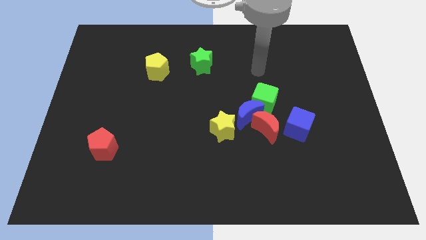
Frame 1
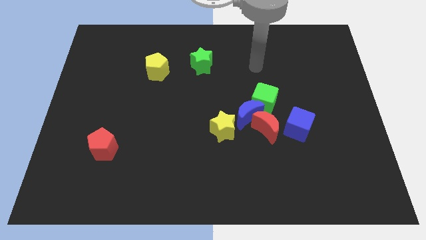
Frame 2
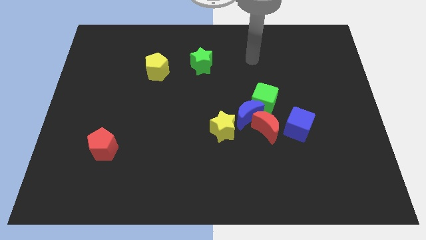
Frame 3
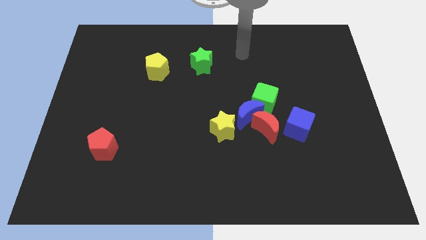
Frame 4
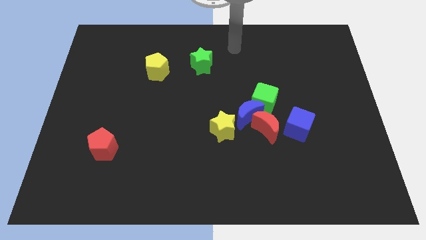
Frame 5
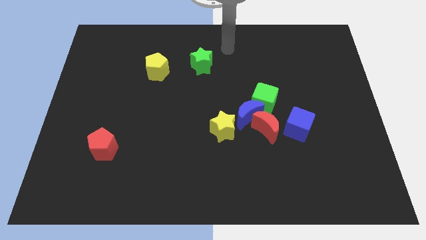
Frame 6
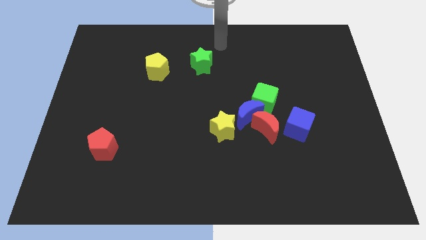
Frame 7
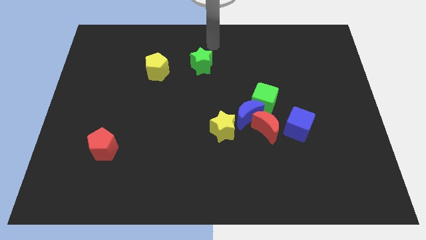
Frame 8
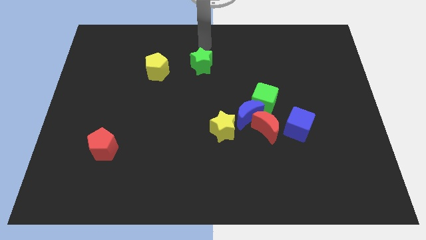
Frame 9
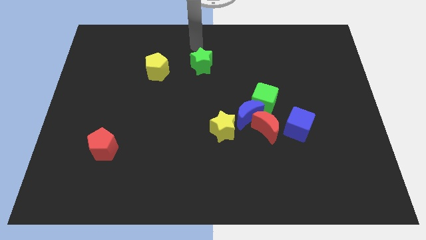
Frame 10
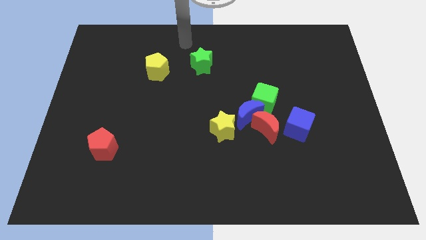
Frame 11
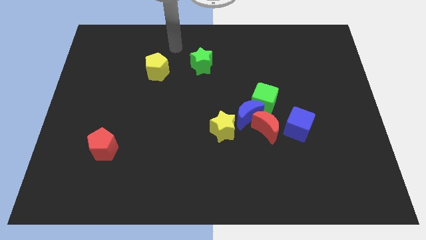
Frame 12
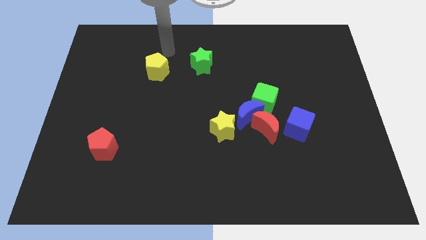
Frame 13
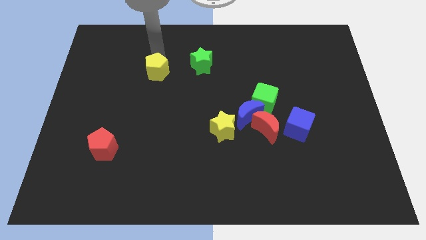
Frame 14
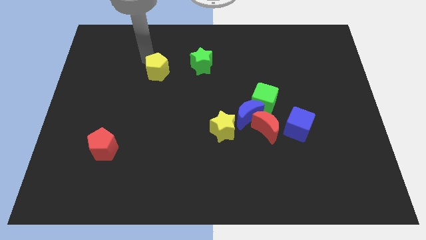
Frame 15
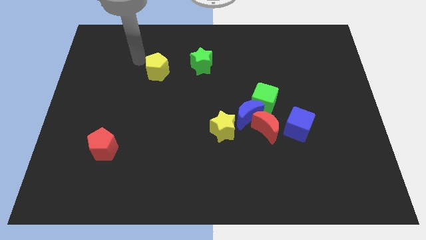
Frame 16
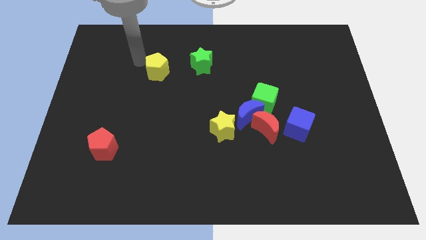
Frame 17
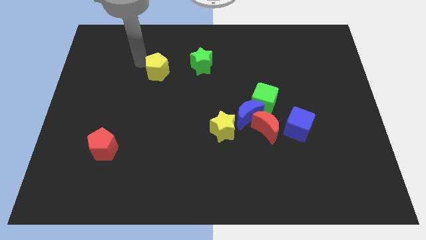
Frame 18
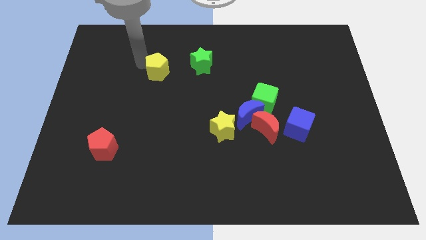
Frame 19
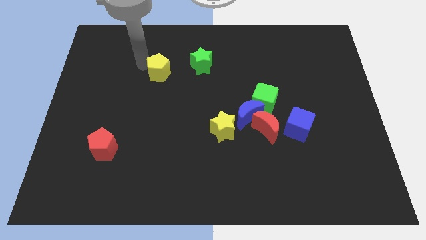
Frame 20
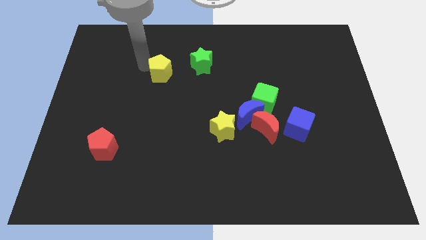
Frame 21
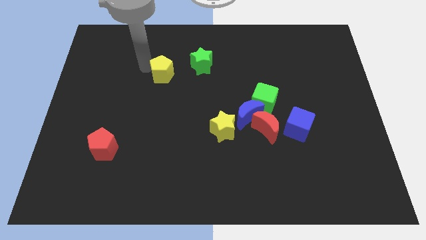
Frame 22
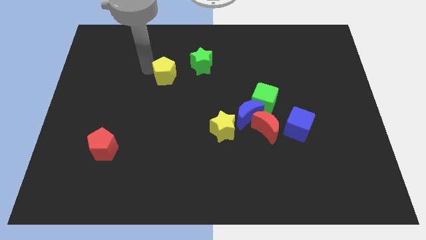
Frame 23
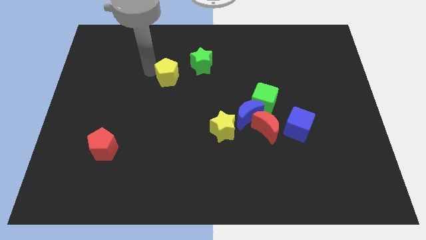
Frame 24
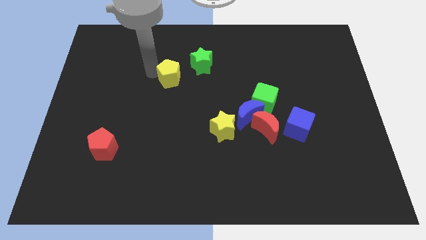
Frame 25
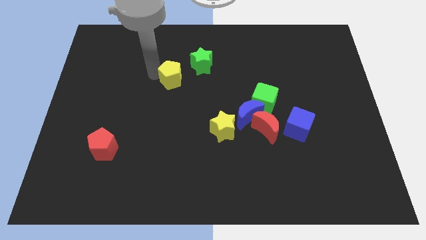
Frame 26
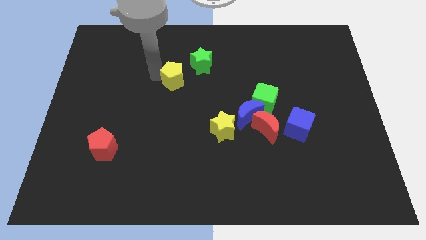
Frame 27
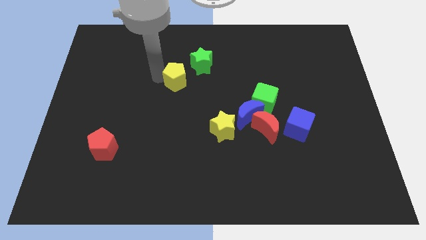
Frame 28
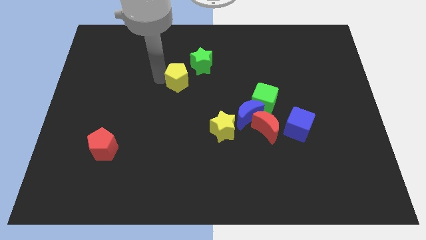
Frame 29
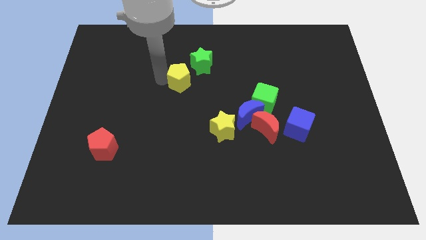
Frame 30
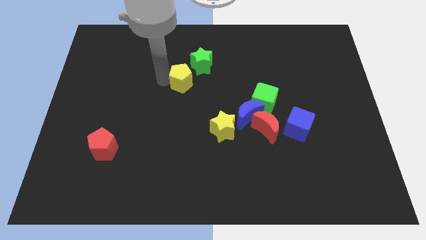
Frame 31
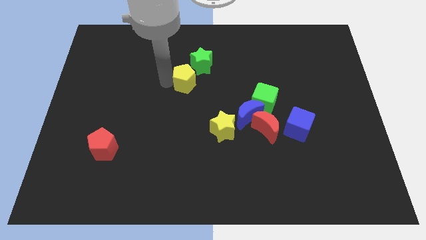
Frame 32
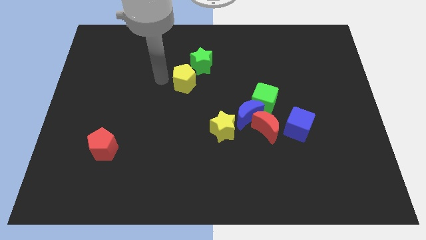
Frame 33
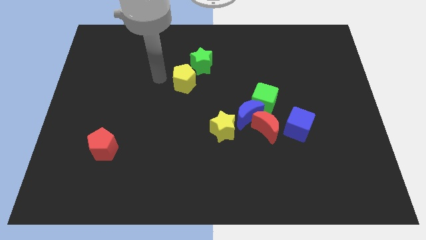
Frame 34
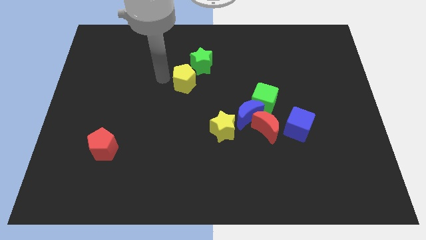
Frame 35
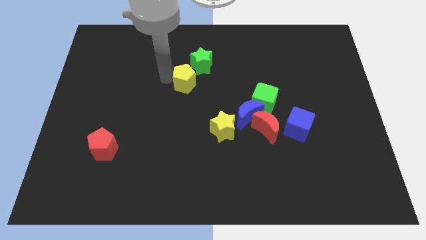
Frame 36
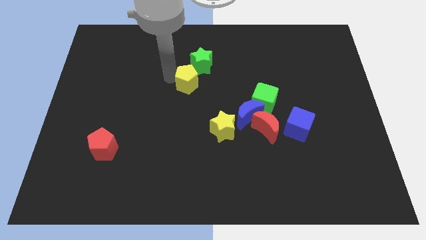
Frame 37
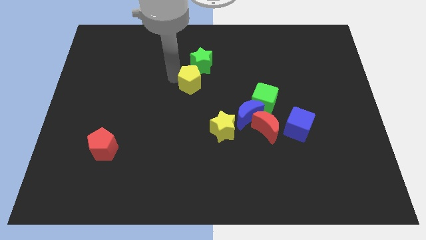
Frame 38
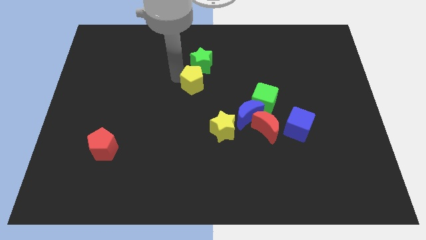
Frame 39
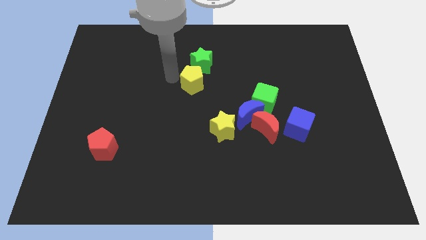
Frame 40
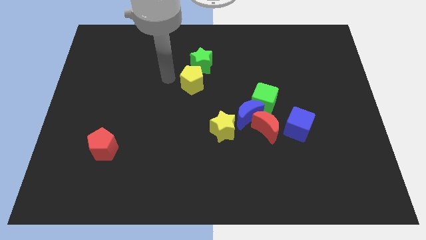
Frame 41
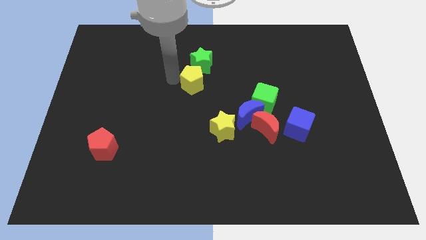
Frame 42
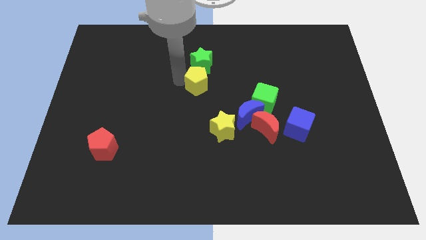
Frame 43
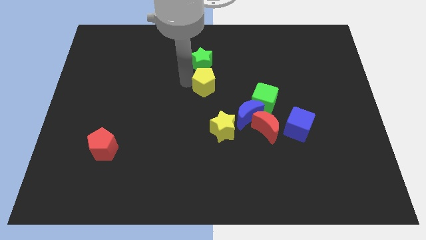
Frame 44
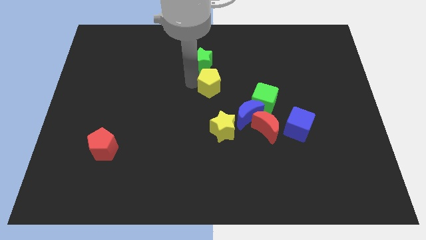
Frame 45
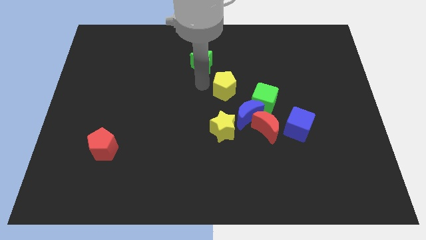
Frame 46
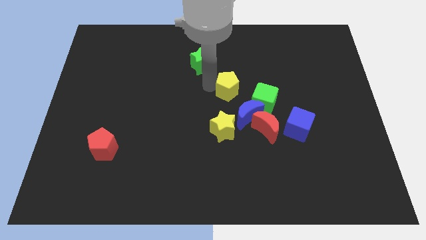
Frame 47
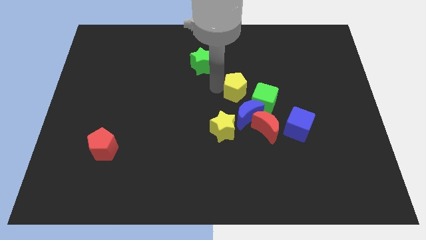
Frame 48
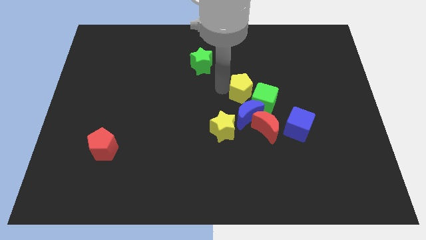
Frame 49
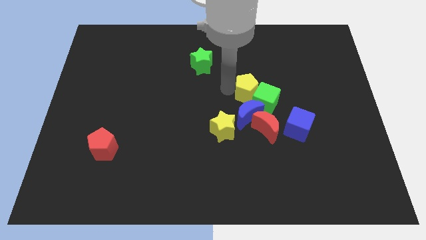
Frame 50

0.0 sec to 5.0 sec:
slide the yellow pentagon close to the green cube

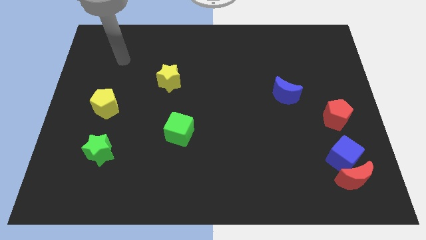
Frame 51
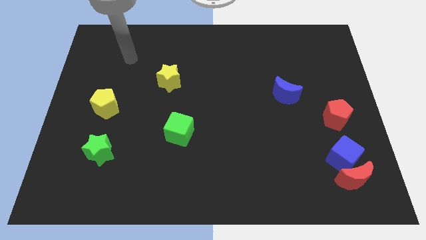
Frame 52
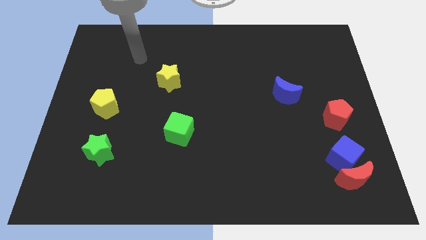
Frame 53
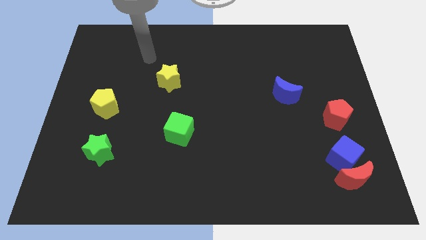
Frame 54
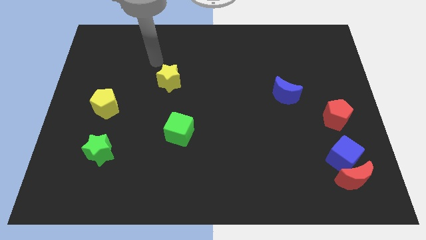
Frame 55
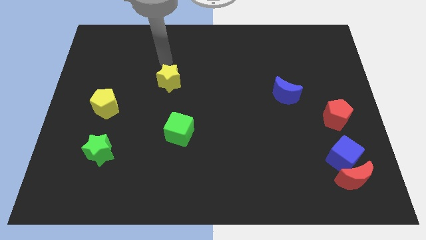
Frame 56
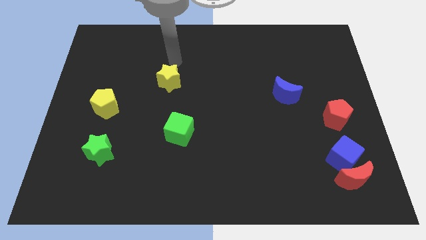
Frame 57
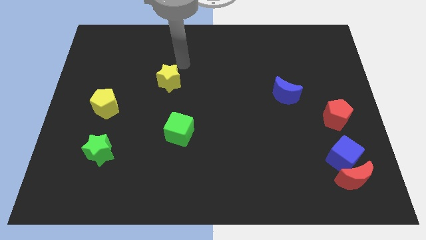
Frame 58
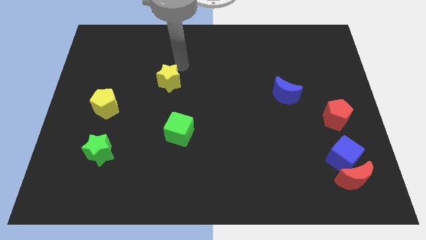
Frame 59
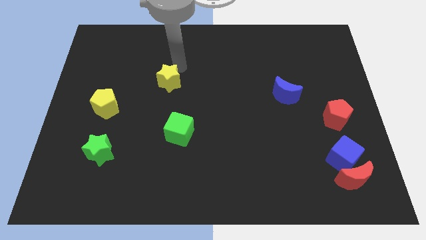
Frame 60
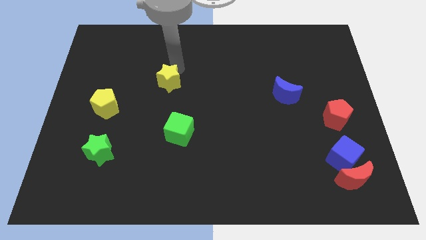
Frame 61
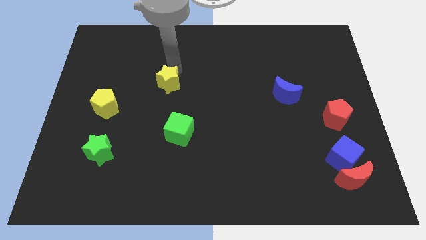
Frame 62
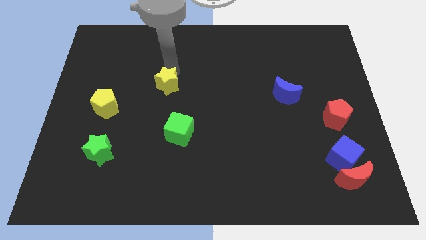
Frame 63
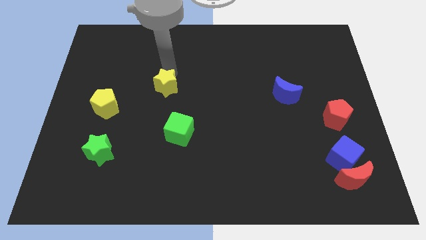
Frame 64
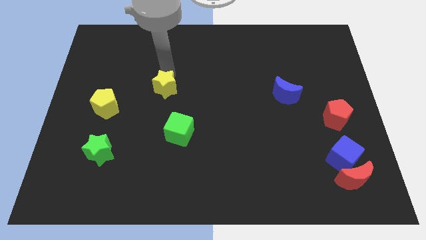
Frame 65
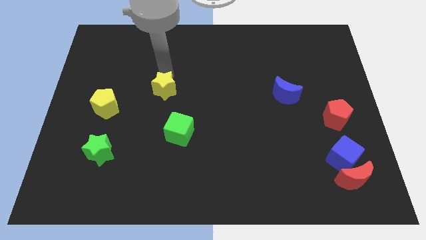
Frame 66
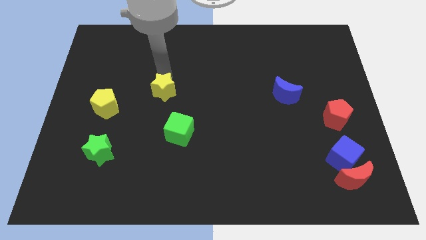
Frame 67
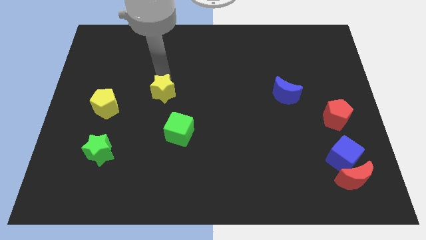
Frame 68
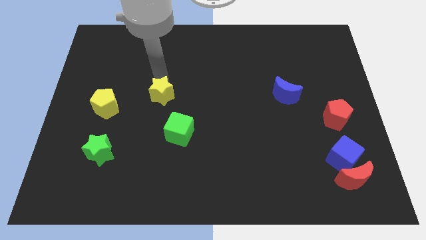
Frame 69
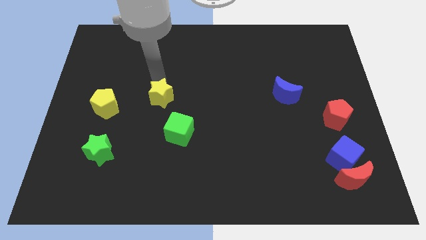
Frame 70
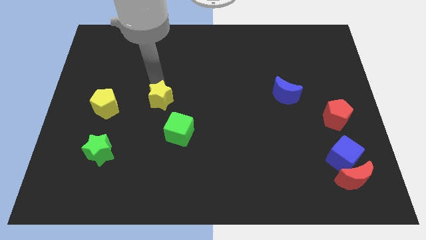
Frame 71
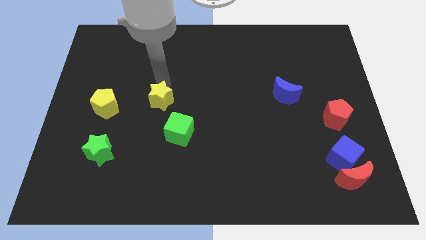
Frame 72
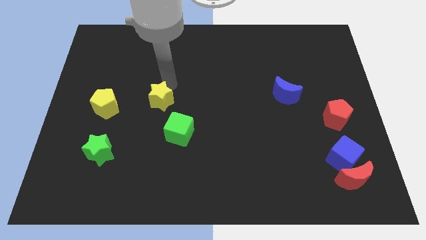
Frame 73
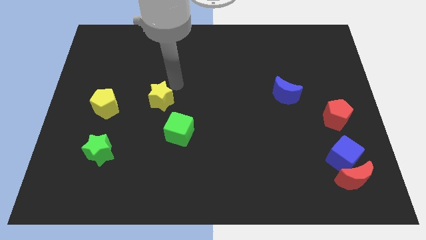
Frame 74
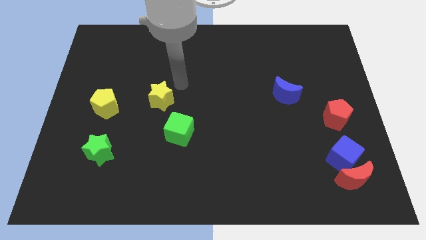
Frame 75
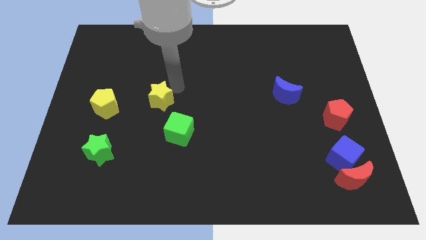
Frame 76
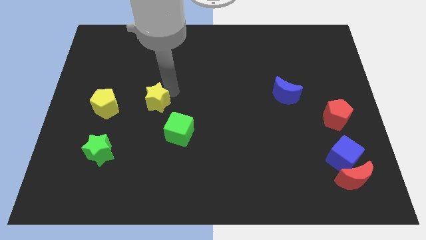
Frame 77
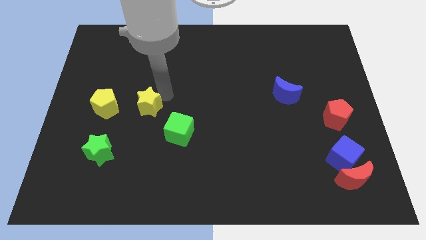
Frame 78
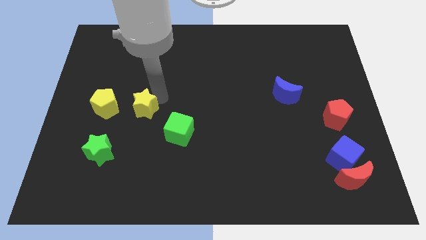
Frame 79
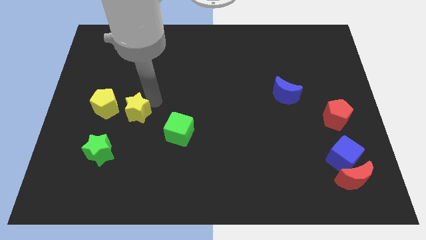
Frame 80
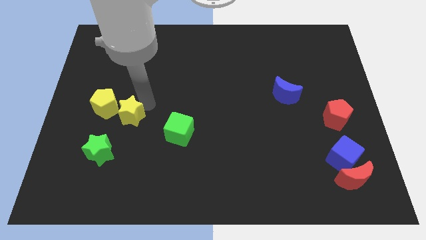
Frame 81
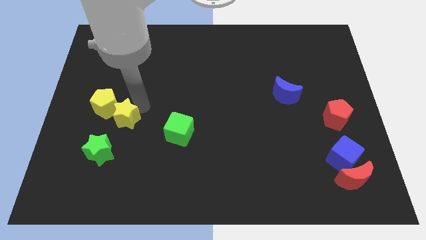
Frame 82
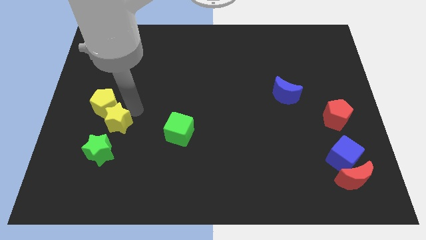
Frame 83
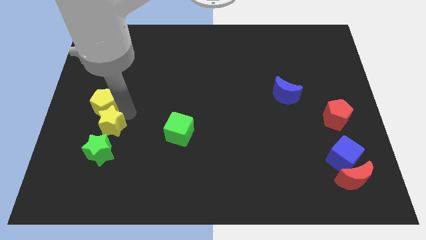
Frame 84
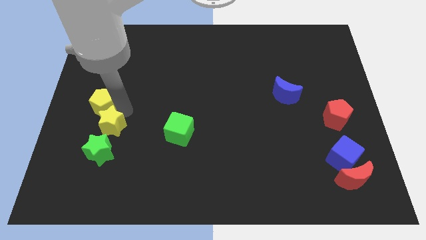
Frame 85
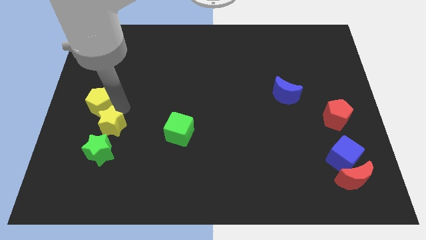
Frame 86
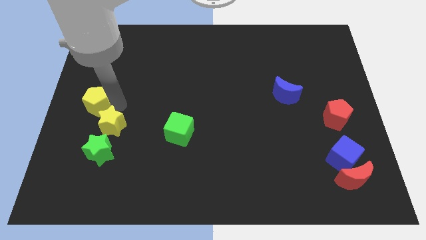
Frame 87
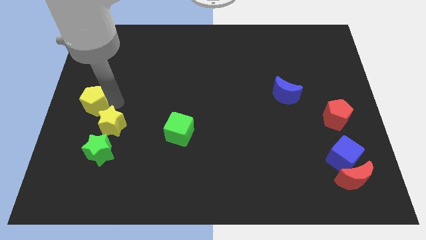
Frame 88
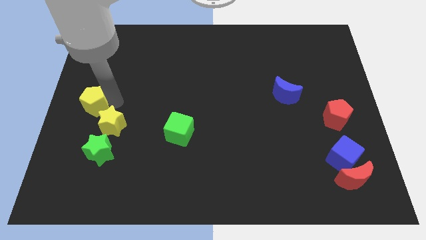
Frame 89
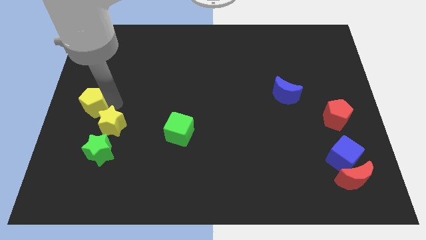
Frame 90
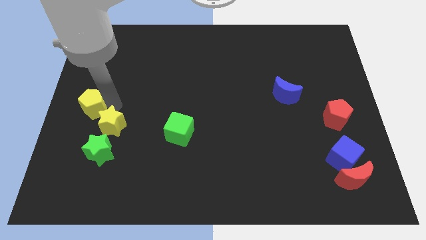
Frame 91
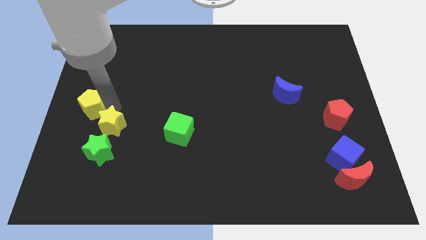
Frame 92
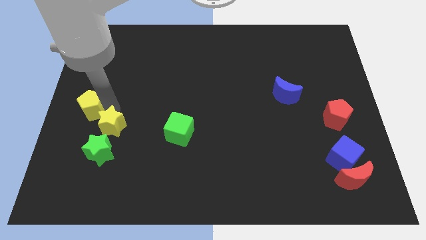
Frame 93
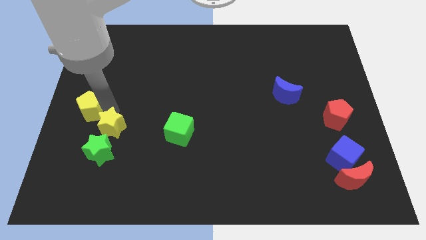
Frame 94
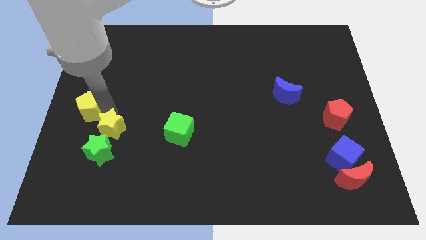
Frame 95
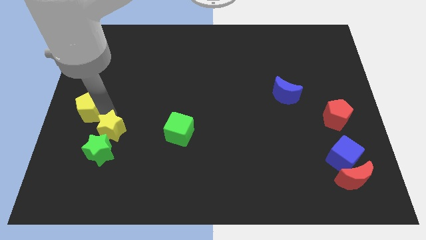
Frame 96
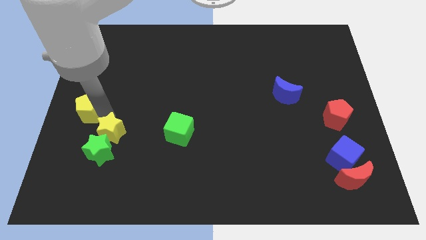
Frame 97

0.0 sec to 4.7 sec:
slide the yellow star close to the green star
